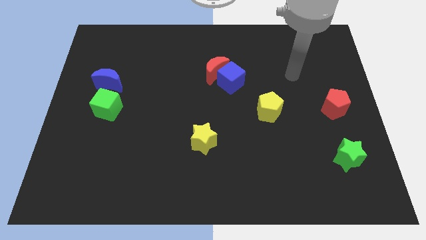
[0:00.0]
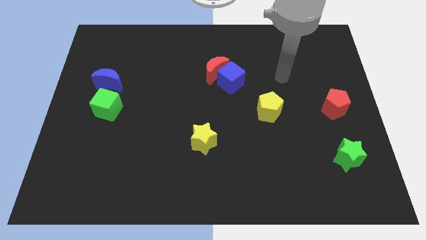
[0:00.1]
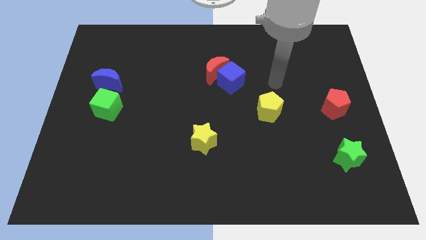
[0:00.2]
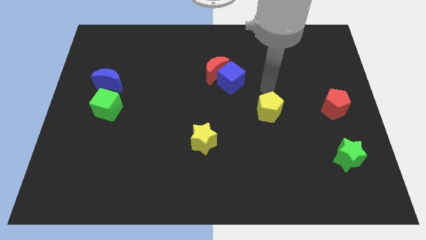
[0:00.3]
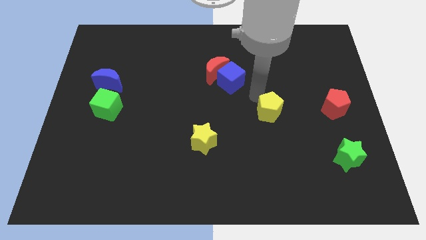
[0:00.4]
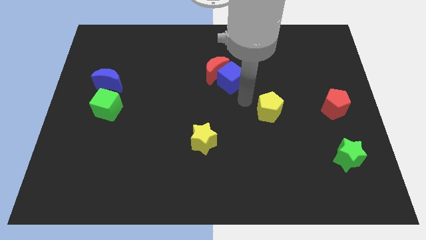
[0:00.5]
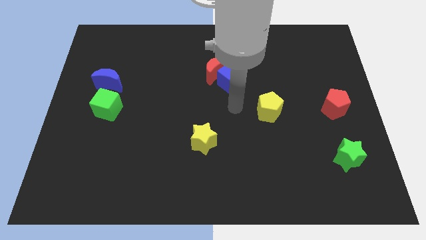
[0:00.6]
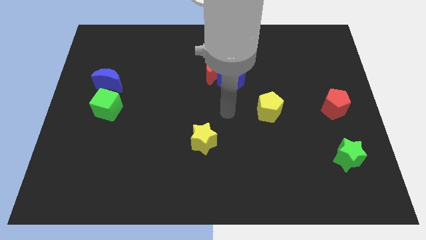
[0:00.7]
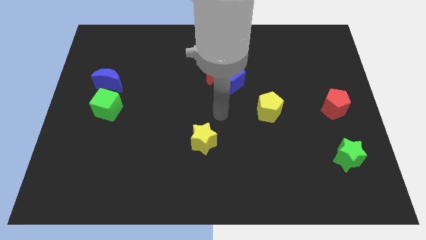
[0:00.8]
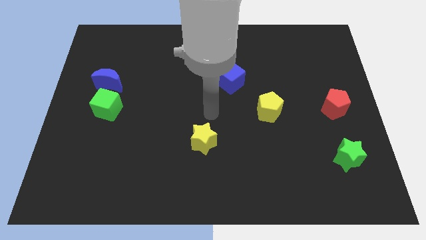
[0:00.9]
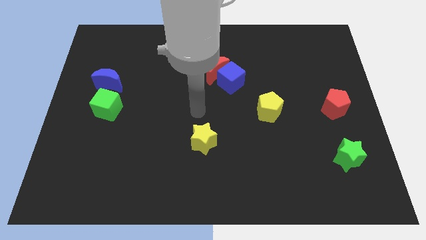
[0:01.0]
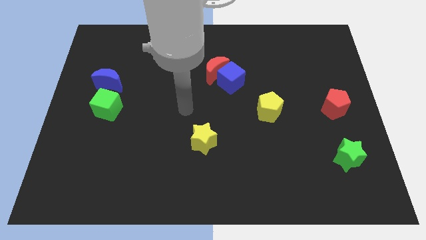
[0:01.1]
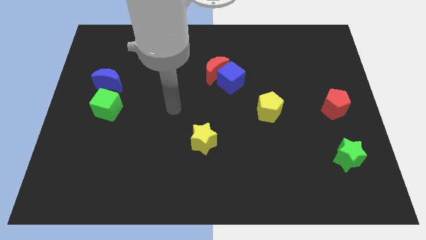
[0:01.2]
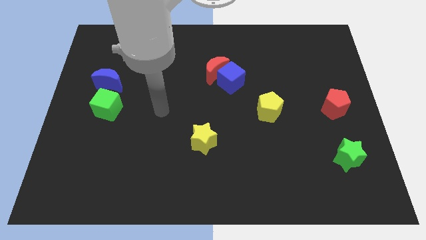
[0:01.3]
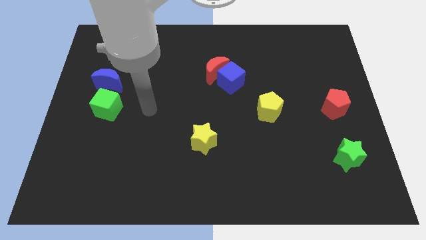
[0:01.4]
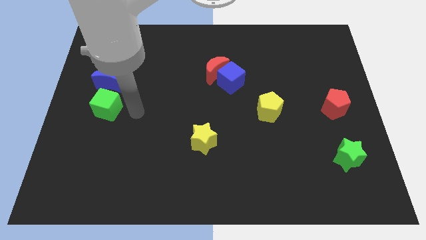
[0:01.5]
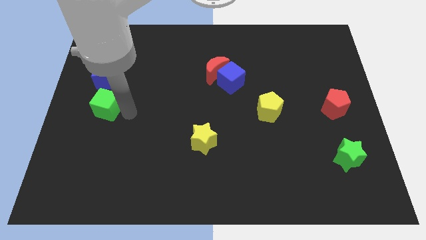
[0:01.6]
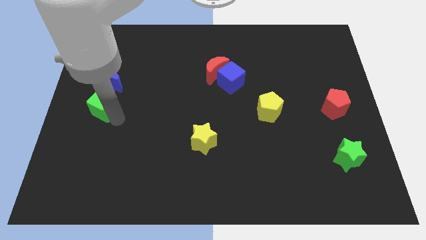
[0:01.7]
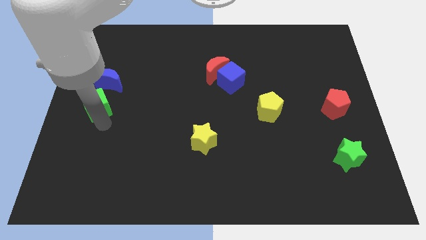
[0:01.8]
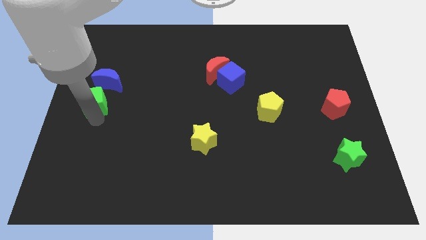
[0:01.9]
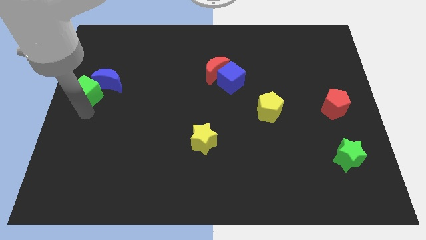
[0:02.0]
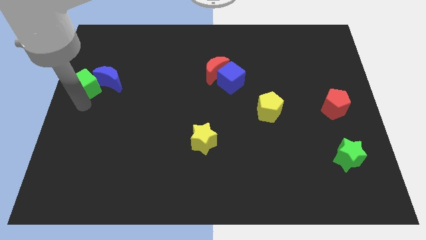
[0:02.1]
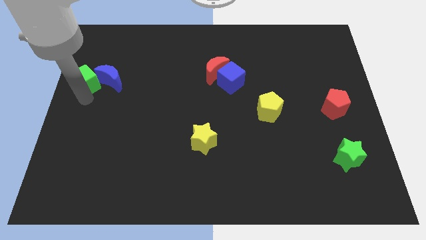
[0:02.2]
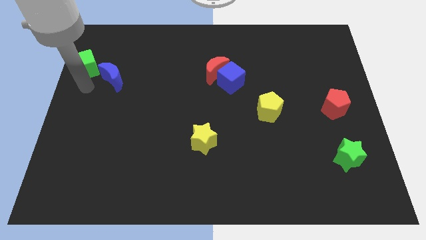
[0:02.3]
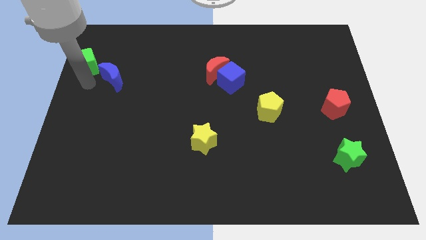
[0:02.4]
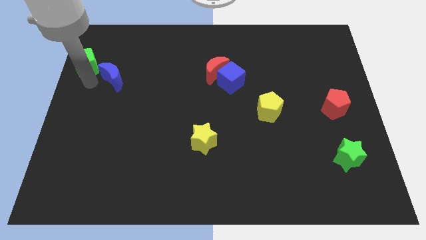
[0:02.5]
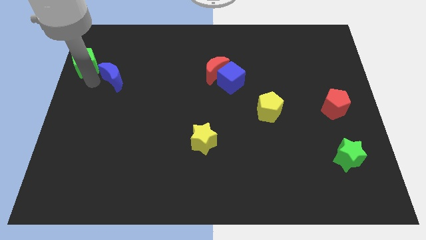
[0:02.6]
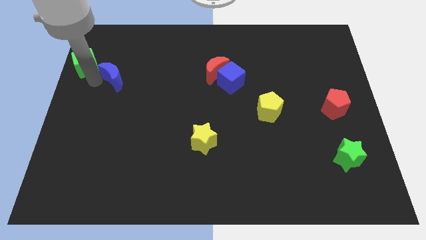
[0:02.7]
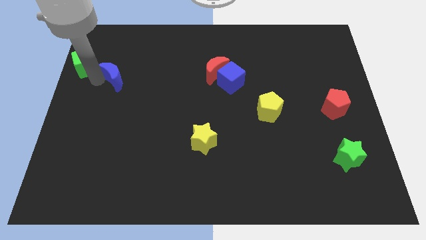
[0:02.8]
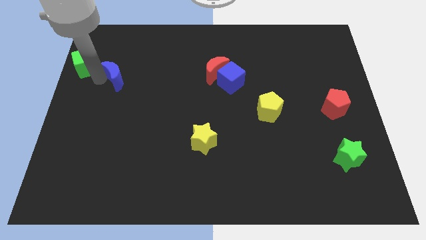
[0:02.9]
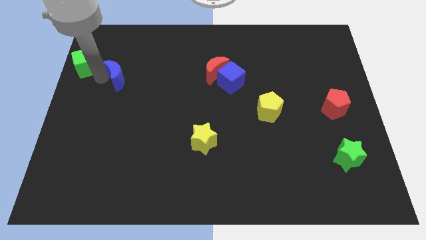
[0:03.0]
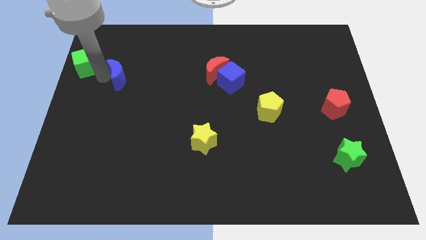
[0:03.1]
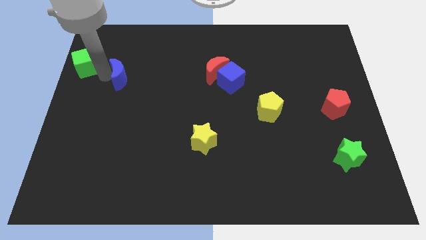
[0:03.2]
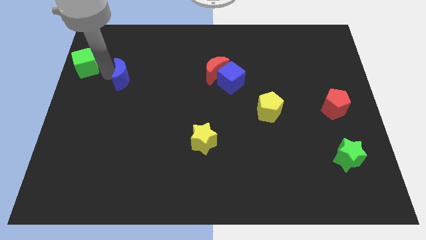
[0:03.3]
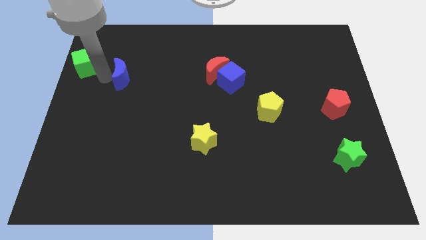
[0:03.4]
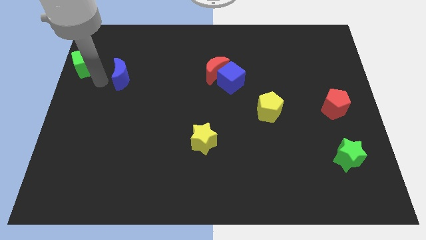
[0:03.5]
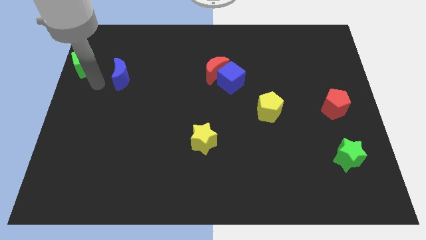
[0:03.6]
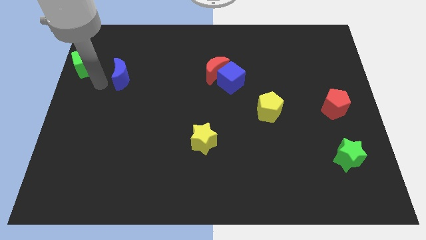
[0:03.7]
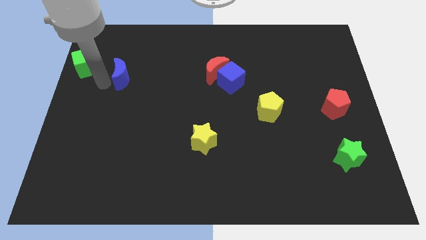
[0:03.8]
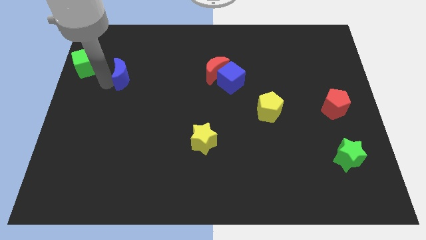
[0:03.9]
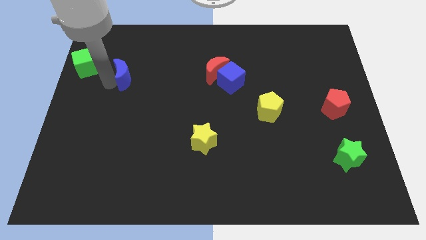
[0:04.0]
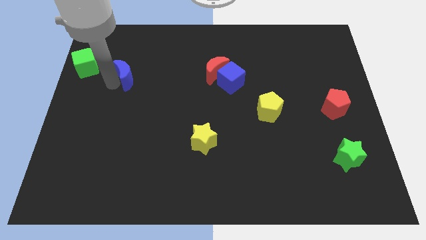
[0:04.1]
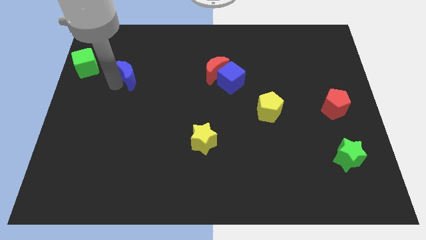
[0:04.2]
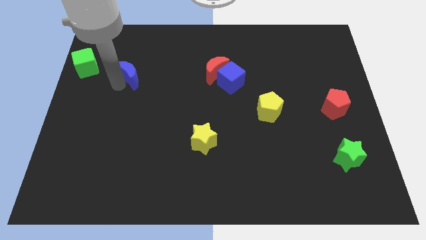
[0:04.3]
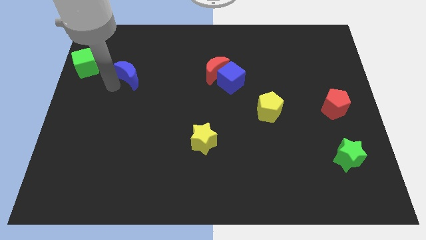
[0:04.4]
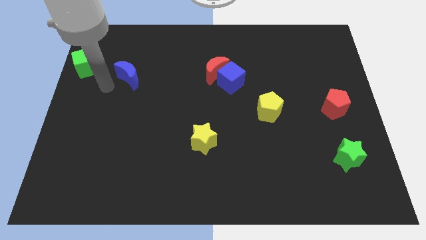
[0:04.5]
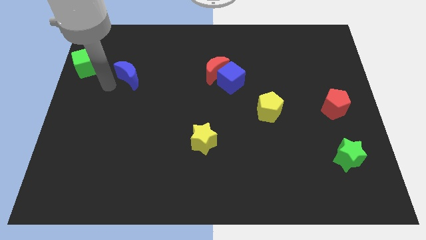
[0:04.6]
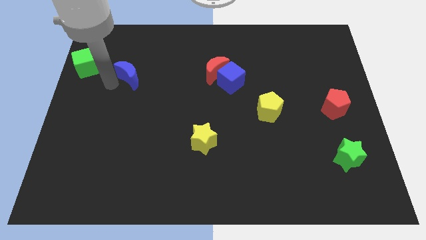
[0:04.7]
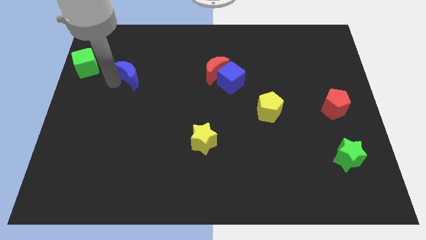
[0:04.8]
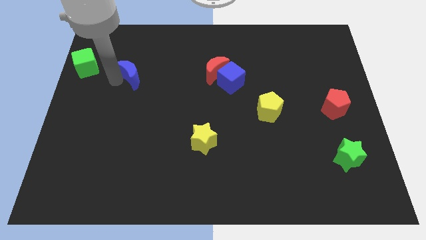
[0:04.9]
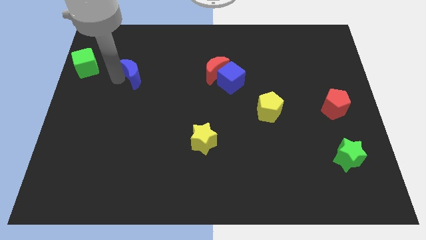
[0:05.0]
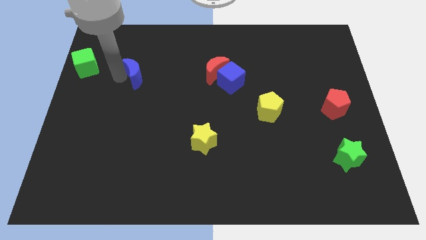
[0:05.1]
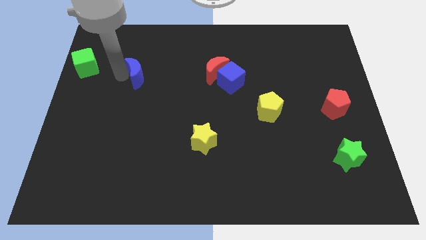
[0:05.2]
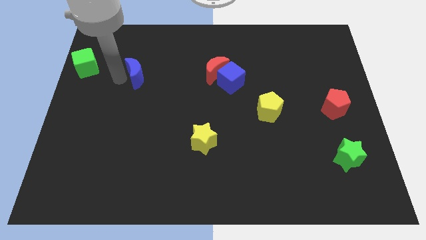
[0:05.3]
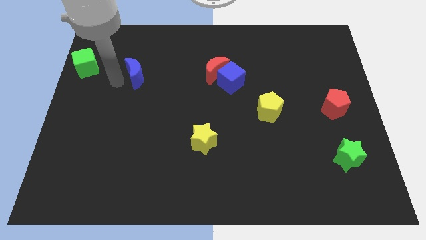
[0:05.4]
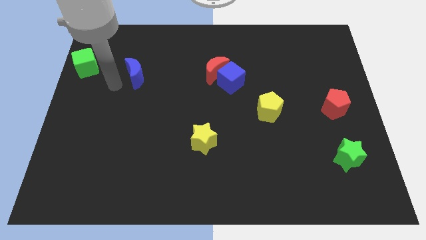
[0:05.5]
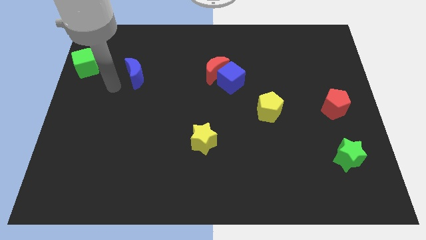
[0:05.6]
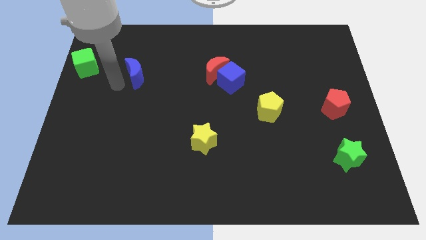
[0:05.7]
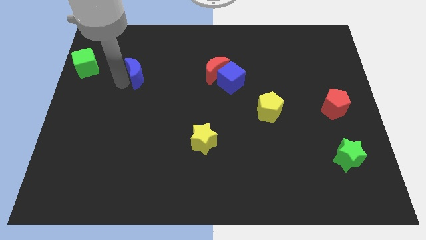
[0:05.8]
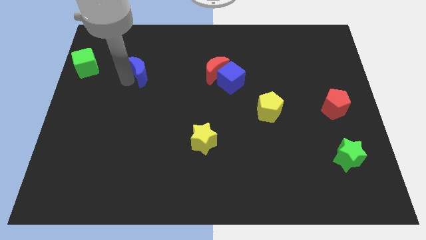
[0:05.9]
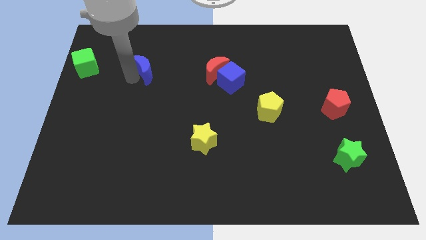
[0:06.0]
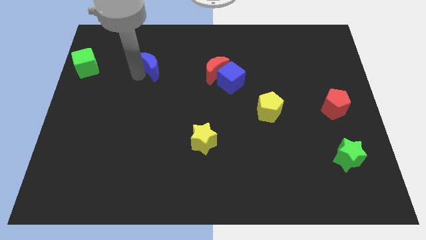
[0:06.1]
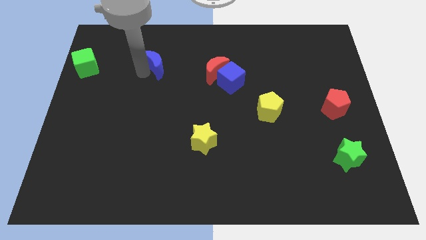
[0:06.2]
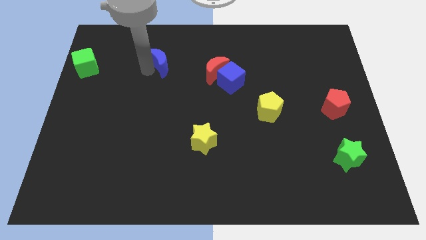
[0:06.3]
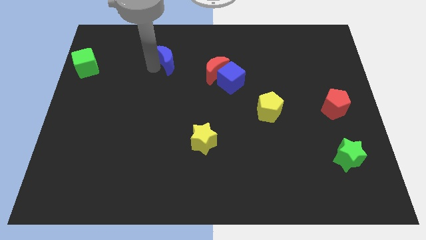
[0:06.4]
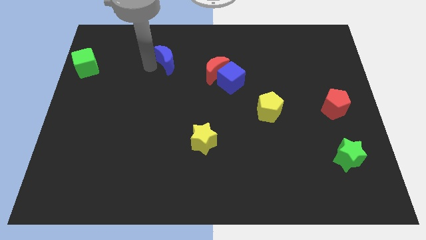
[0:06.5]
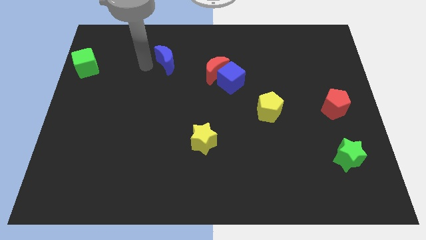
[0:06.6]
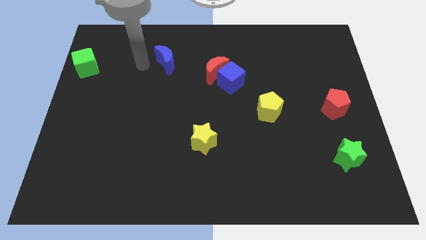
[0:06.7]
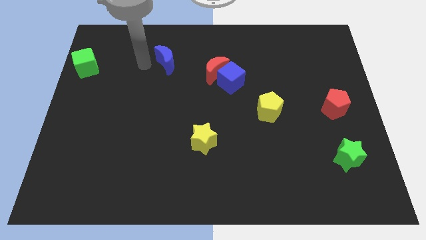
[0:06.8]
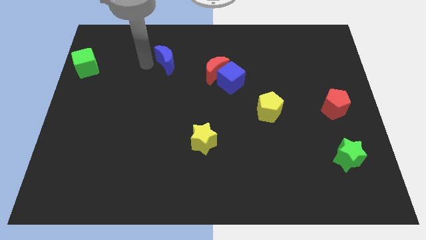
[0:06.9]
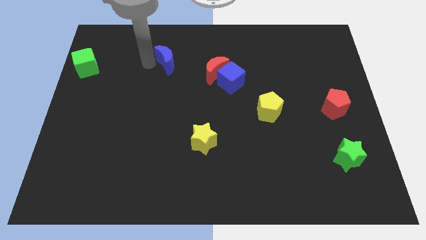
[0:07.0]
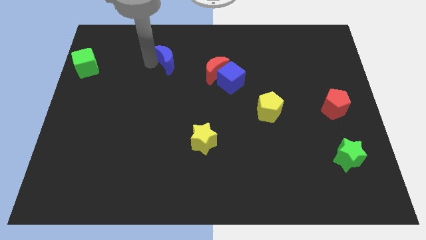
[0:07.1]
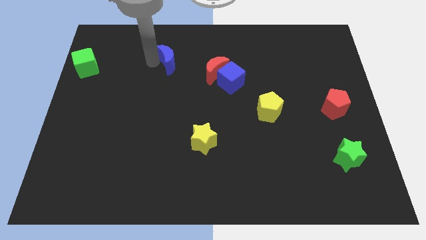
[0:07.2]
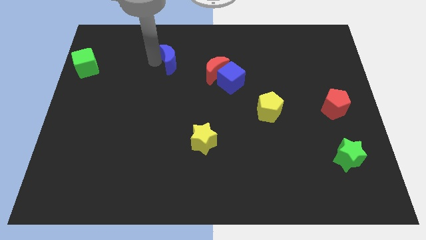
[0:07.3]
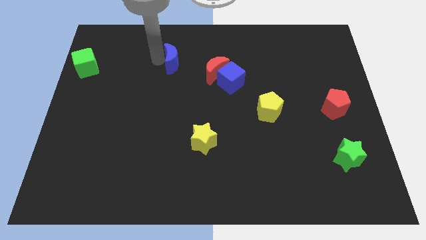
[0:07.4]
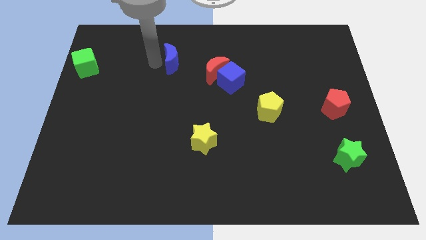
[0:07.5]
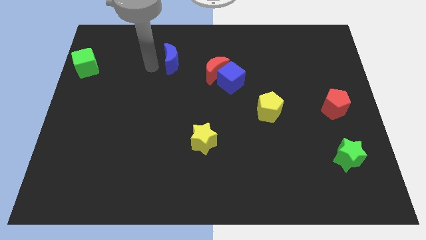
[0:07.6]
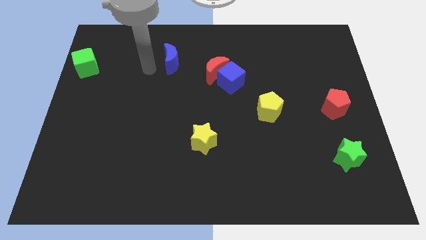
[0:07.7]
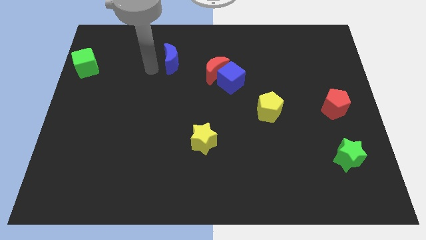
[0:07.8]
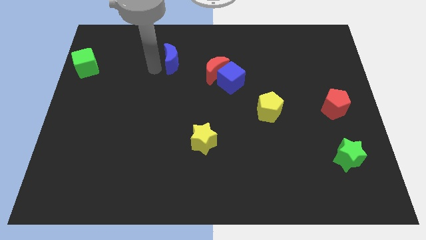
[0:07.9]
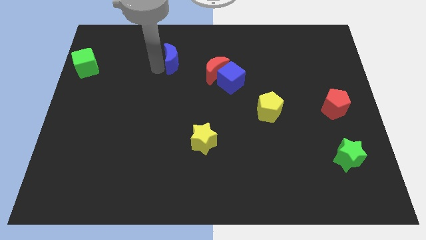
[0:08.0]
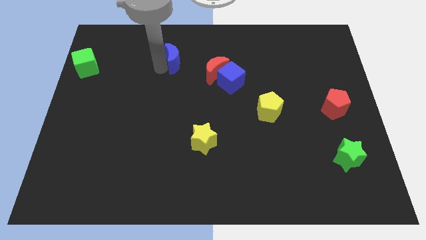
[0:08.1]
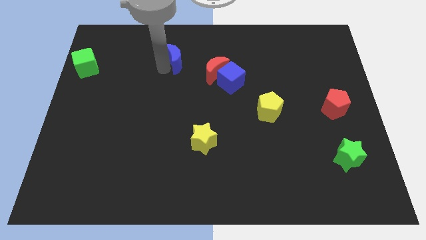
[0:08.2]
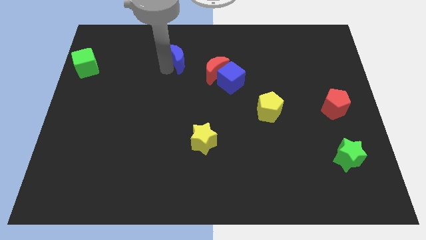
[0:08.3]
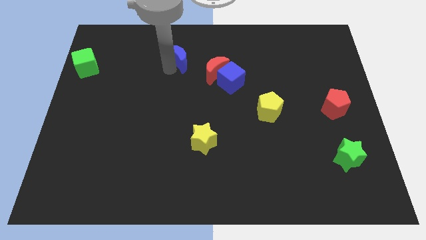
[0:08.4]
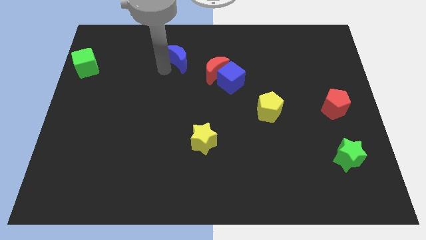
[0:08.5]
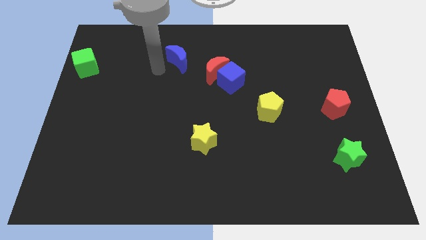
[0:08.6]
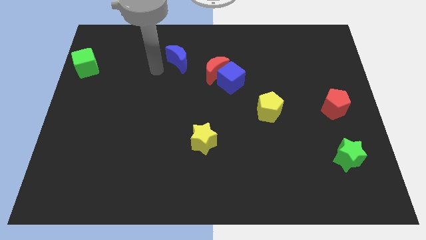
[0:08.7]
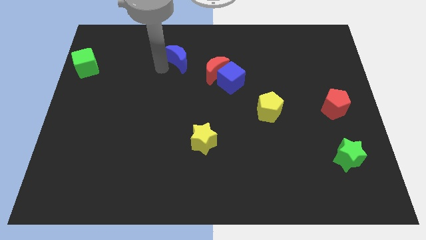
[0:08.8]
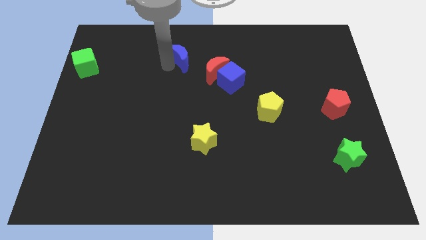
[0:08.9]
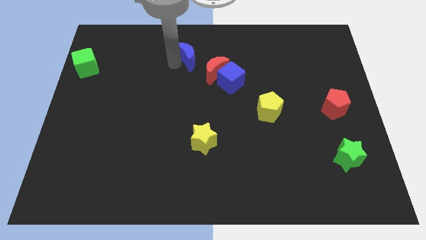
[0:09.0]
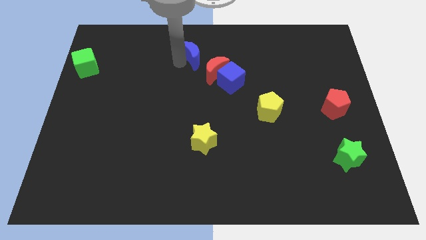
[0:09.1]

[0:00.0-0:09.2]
push the blue moon diagonally up and to the left of the blue cube
